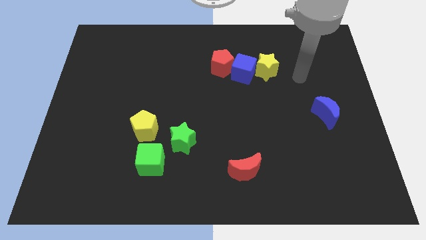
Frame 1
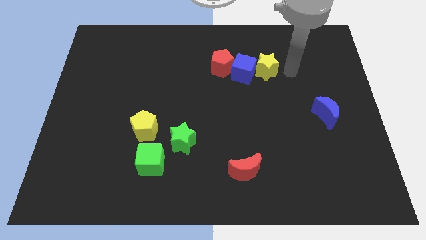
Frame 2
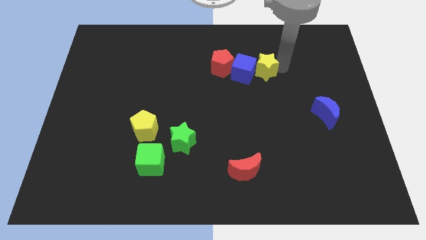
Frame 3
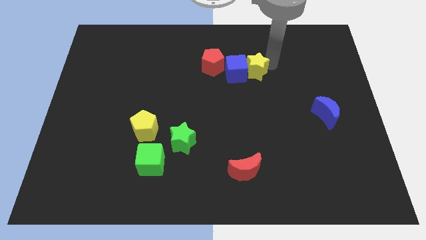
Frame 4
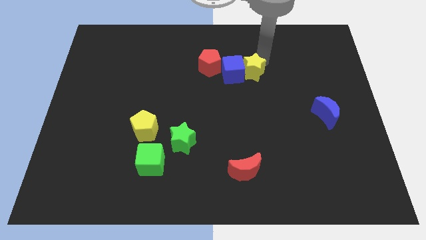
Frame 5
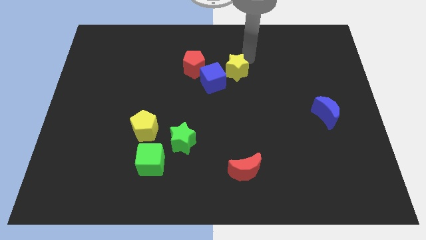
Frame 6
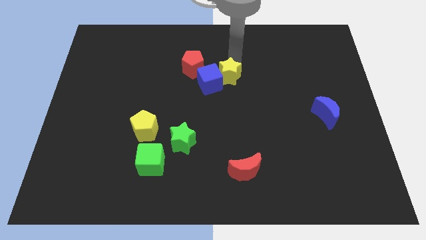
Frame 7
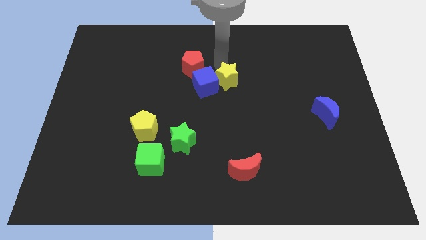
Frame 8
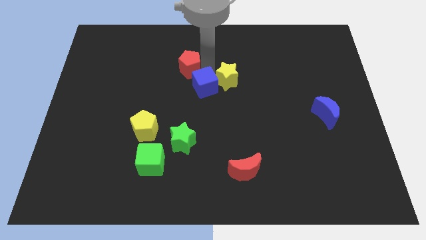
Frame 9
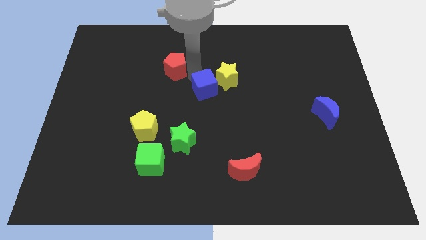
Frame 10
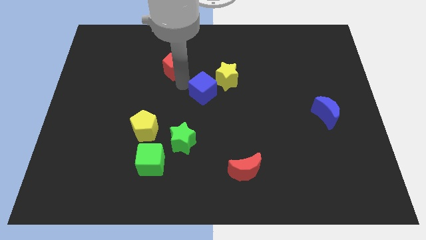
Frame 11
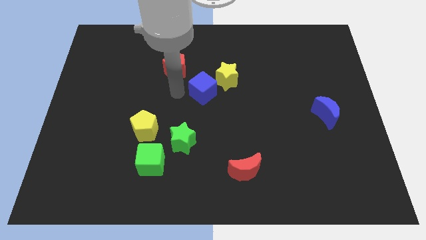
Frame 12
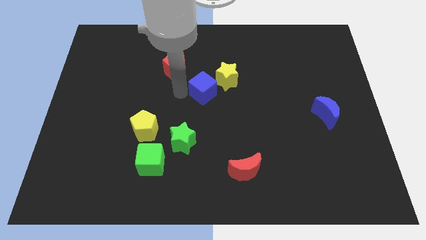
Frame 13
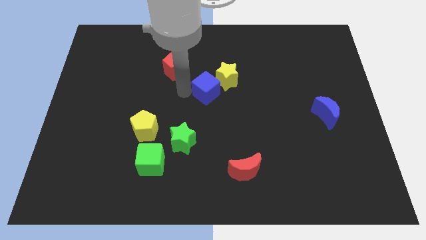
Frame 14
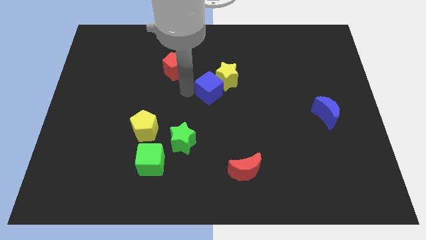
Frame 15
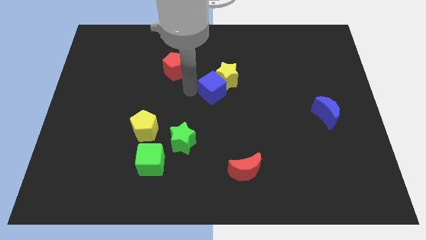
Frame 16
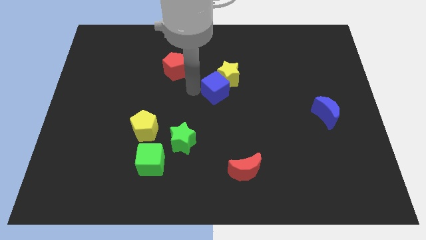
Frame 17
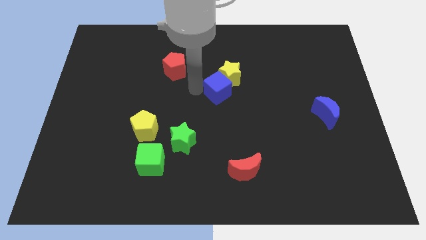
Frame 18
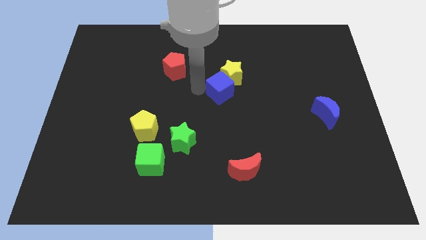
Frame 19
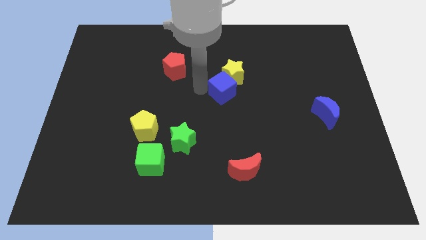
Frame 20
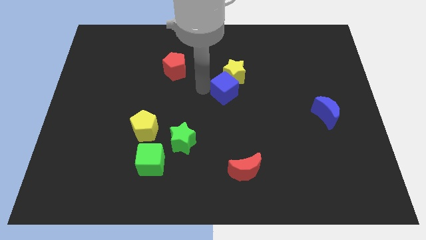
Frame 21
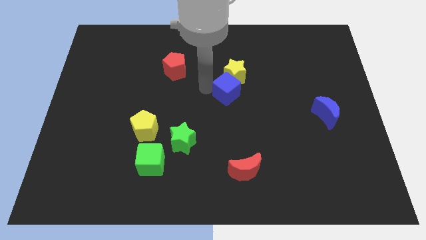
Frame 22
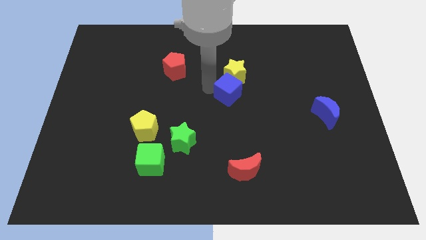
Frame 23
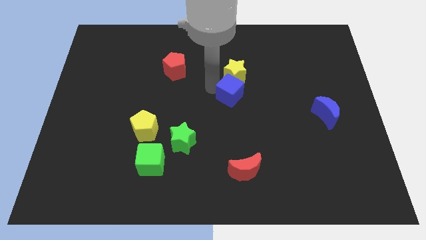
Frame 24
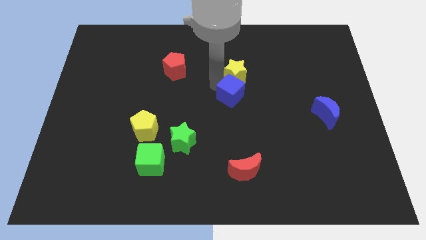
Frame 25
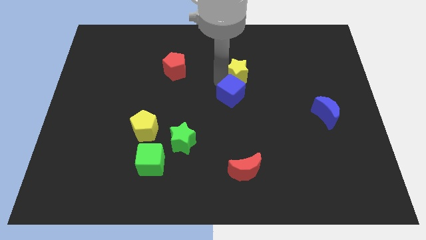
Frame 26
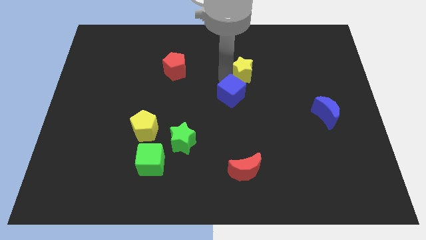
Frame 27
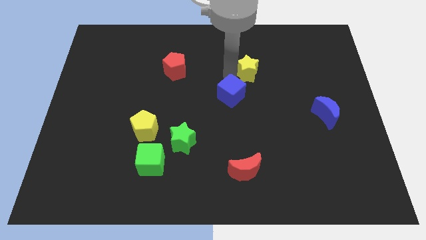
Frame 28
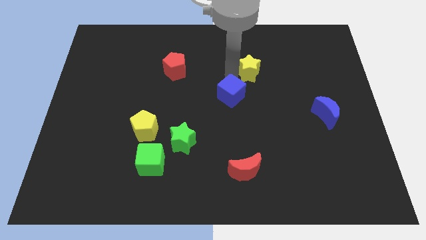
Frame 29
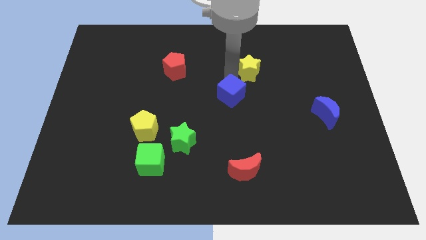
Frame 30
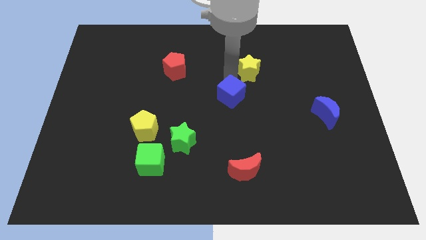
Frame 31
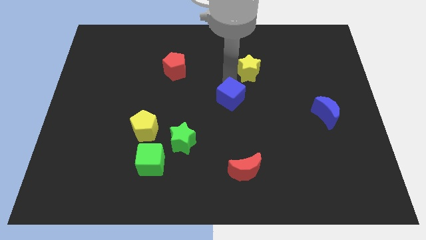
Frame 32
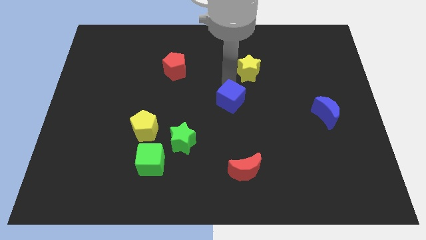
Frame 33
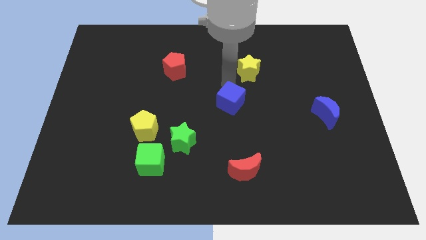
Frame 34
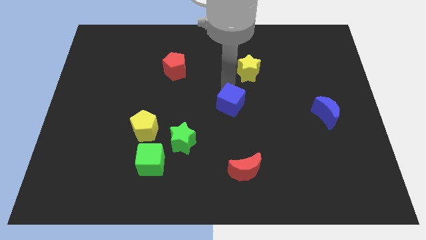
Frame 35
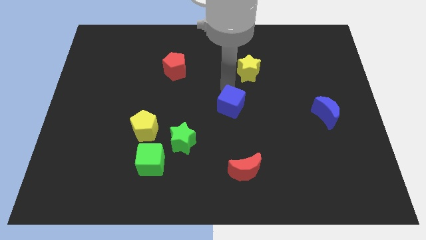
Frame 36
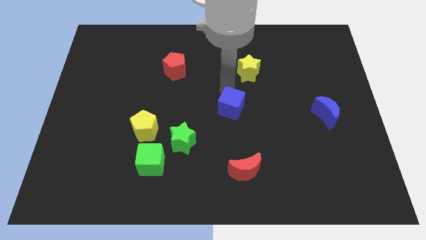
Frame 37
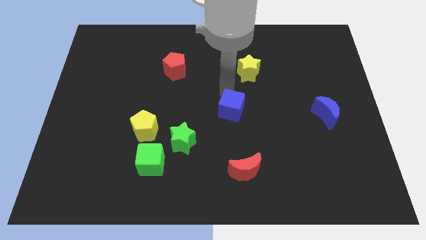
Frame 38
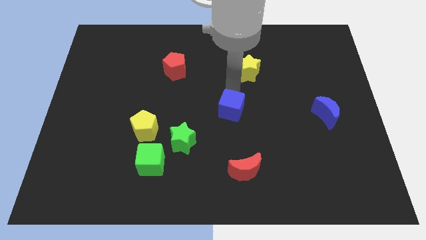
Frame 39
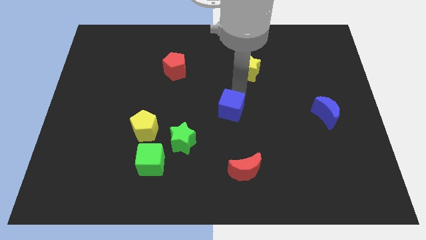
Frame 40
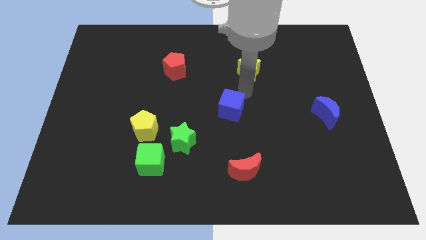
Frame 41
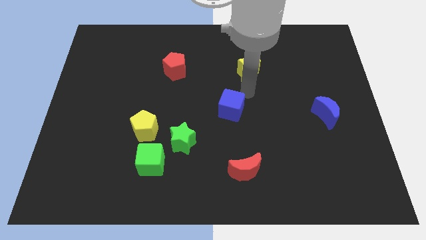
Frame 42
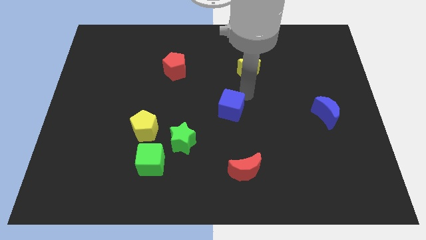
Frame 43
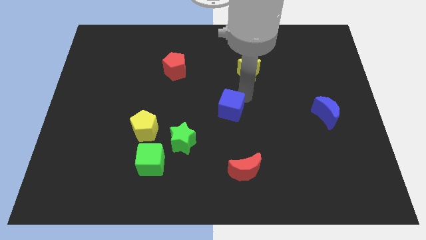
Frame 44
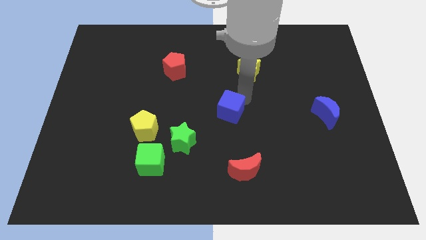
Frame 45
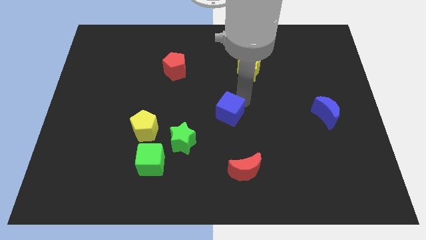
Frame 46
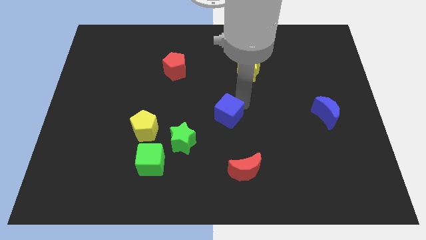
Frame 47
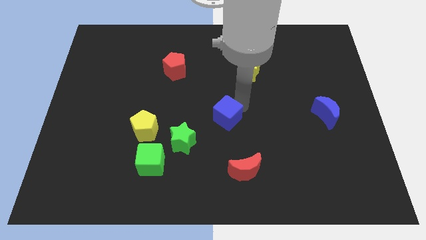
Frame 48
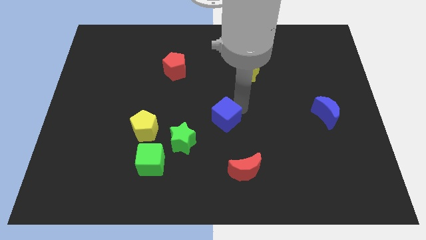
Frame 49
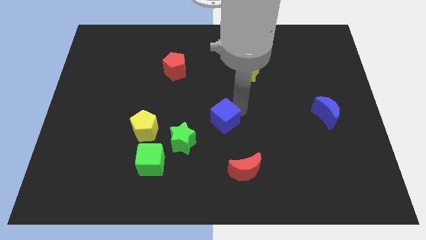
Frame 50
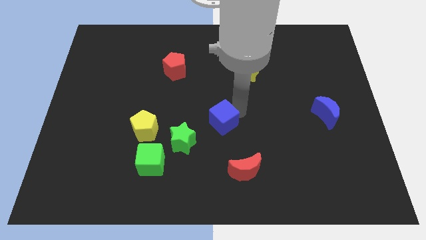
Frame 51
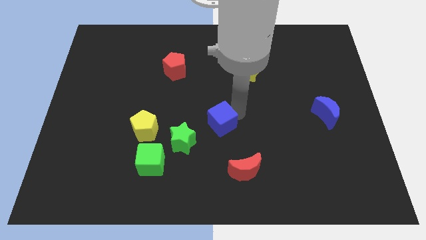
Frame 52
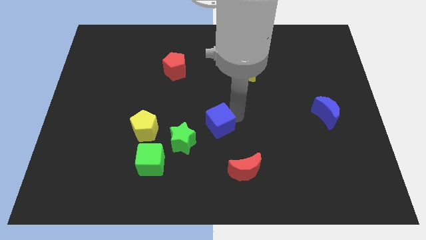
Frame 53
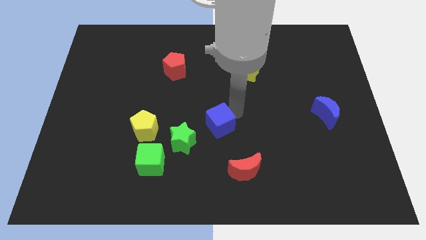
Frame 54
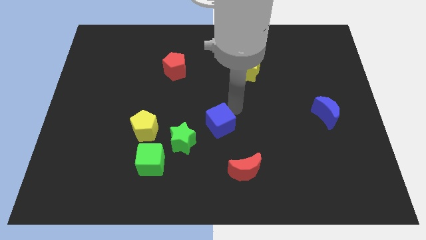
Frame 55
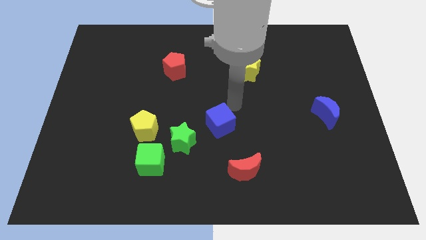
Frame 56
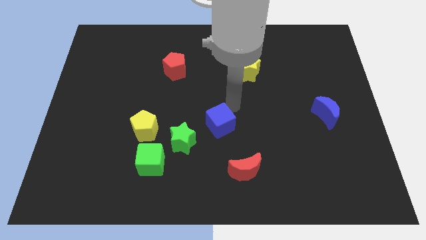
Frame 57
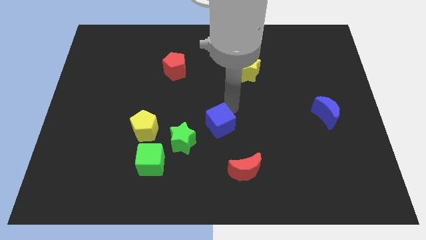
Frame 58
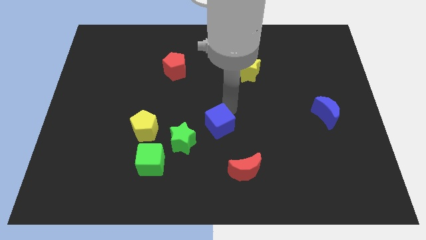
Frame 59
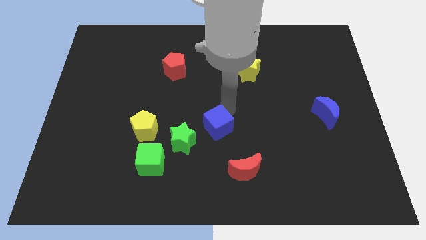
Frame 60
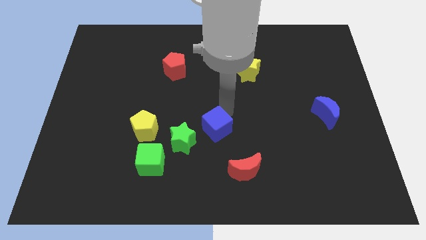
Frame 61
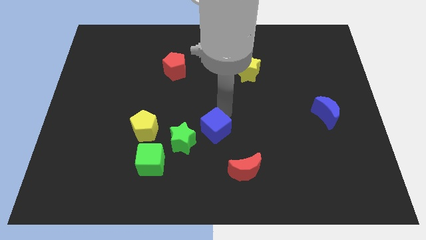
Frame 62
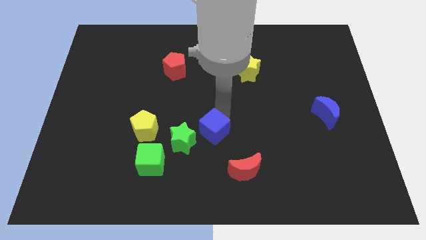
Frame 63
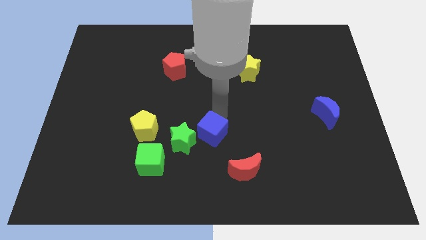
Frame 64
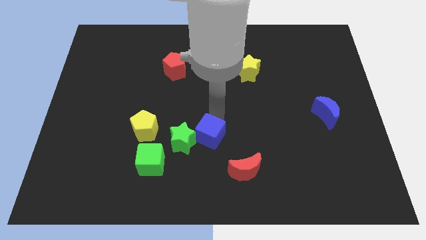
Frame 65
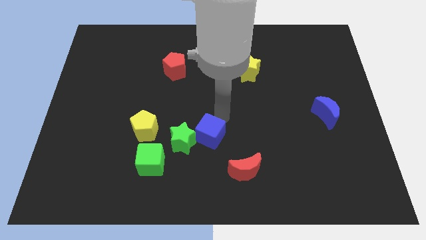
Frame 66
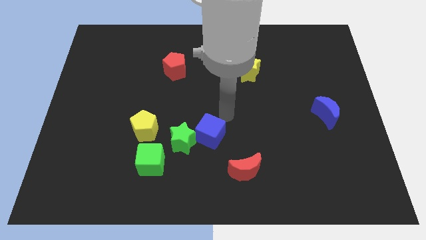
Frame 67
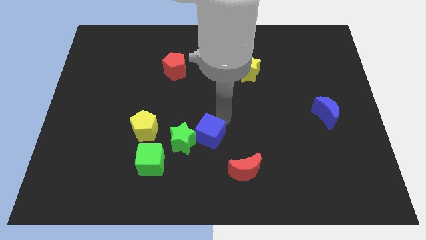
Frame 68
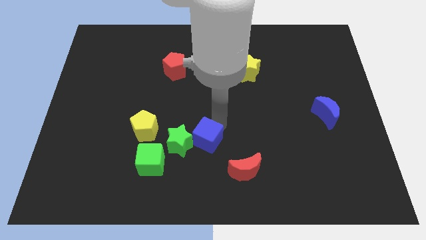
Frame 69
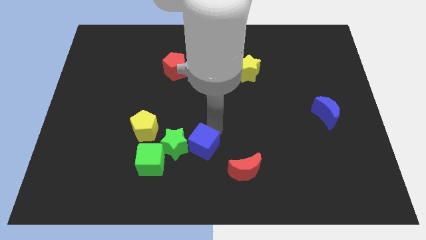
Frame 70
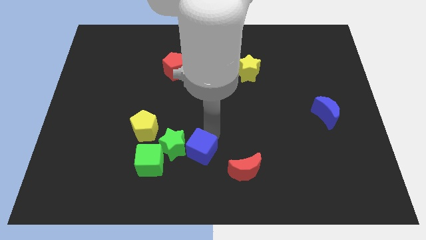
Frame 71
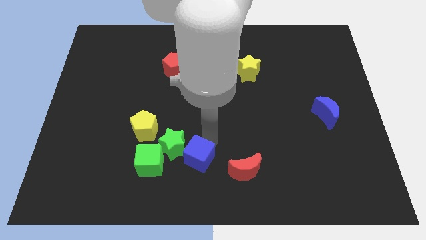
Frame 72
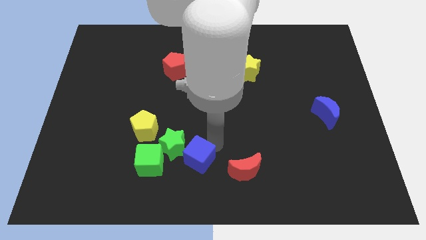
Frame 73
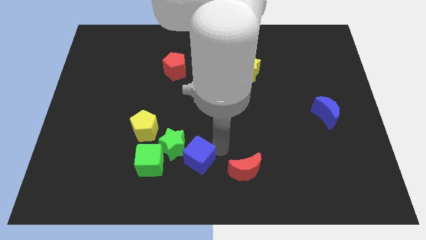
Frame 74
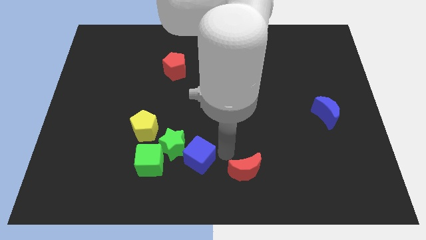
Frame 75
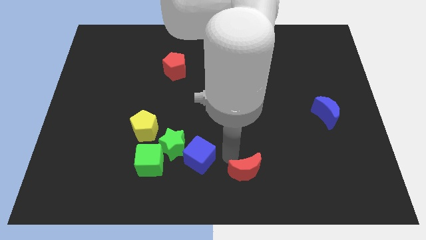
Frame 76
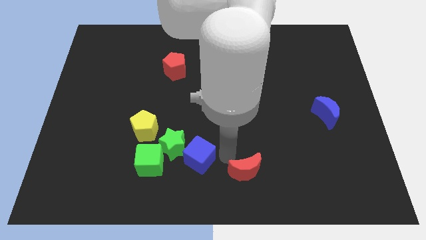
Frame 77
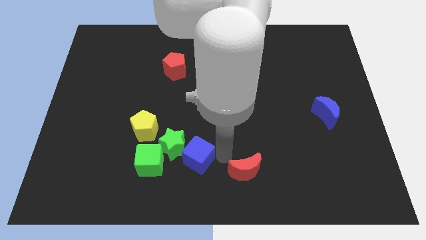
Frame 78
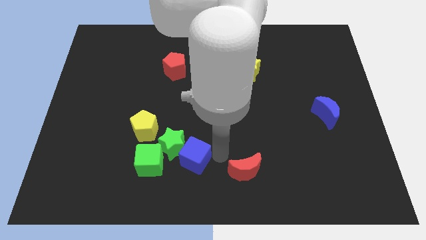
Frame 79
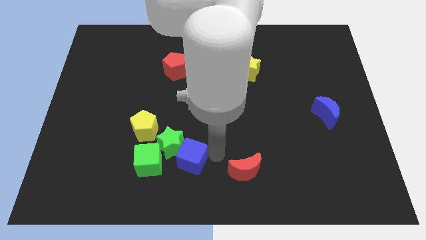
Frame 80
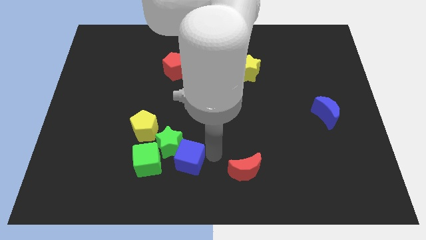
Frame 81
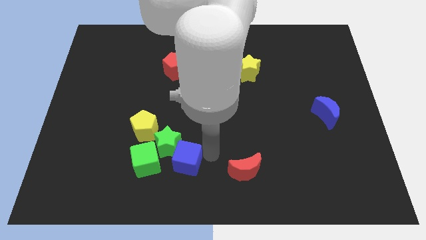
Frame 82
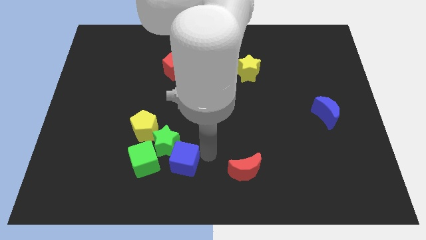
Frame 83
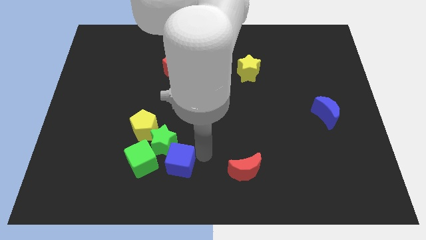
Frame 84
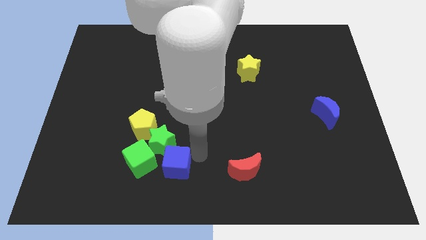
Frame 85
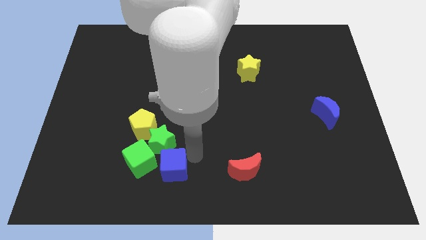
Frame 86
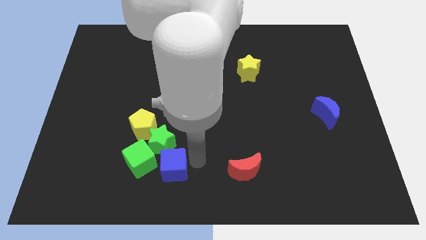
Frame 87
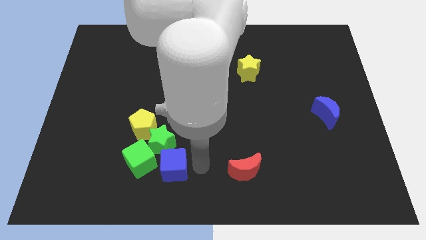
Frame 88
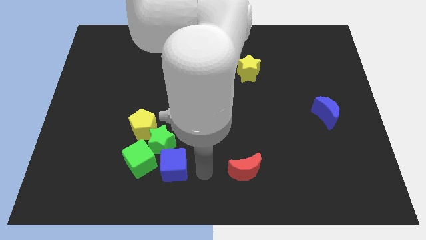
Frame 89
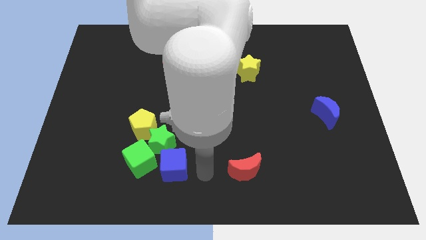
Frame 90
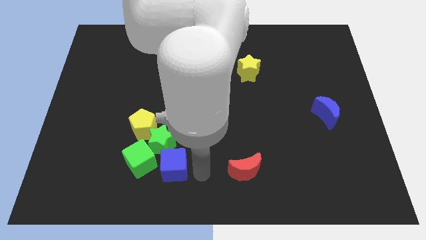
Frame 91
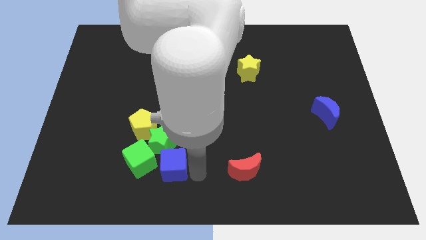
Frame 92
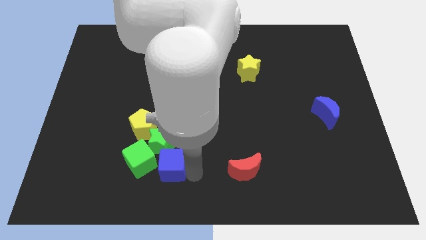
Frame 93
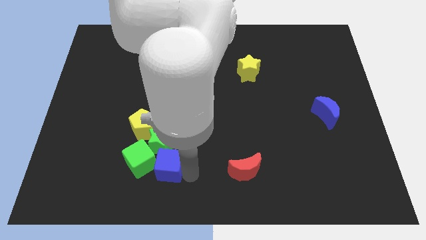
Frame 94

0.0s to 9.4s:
put the blue cube close to the green cube
